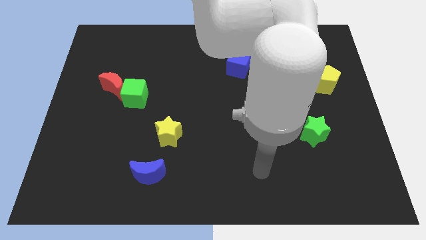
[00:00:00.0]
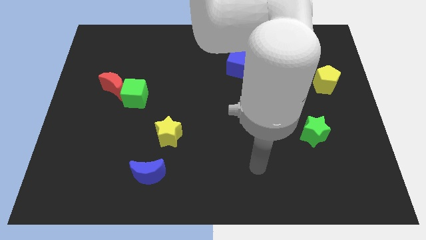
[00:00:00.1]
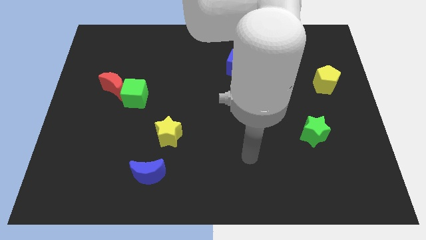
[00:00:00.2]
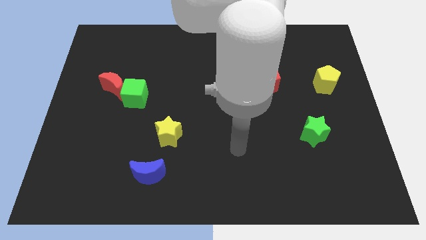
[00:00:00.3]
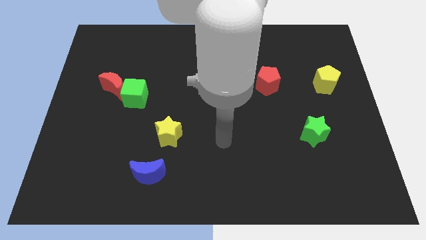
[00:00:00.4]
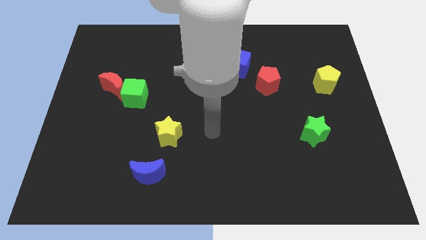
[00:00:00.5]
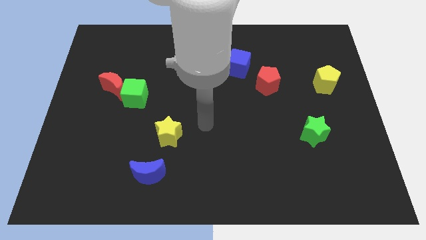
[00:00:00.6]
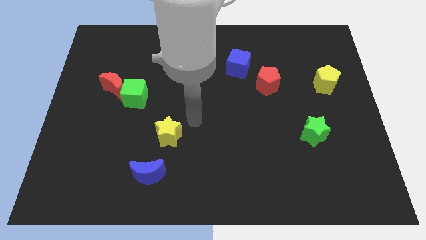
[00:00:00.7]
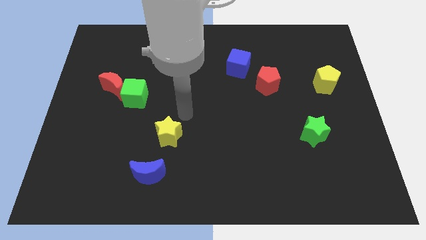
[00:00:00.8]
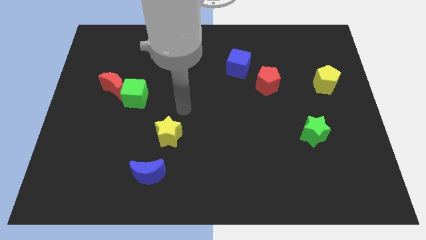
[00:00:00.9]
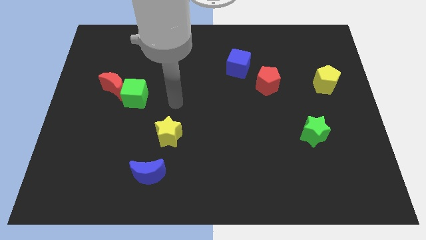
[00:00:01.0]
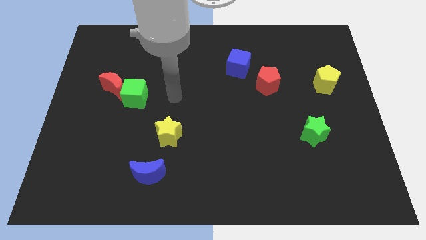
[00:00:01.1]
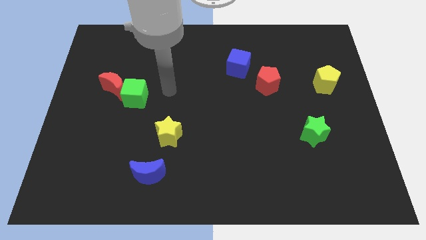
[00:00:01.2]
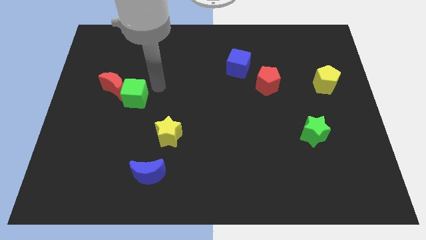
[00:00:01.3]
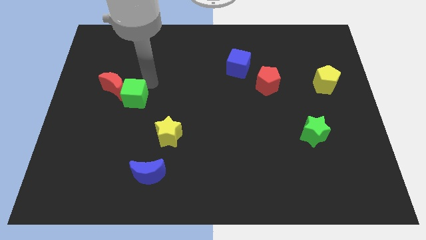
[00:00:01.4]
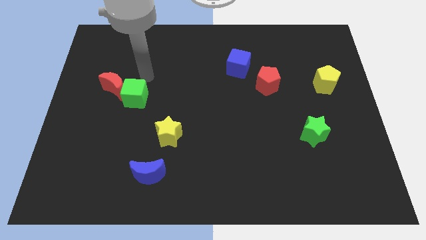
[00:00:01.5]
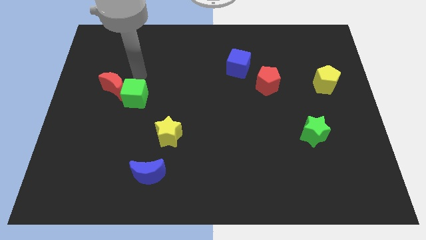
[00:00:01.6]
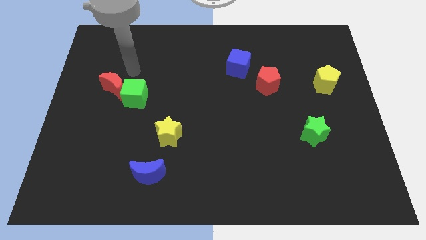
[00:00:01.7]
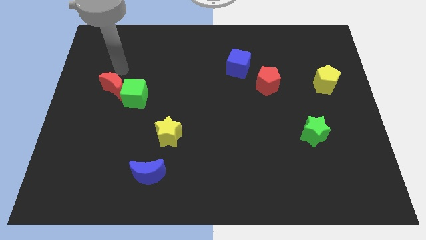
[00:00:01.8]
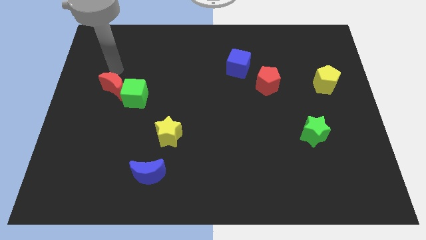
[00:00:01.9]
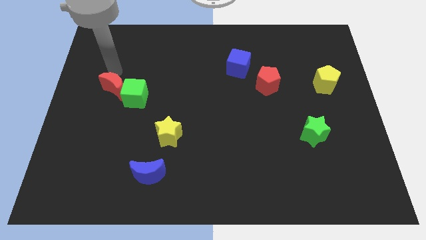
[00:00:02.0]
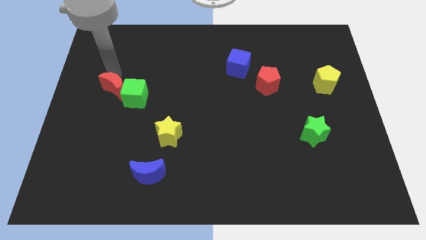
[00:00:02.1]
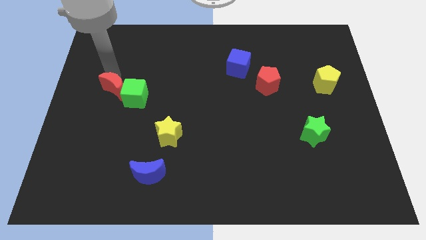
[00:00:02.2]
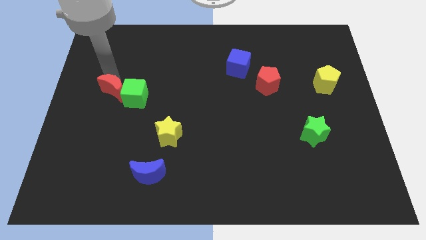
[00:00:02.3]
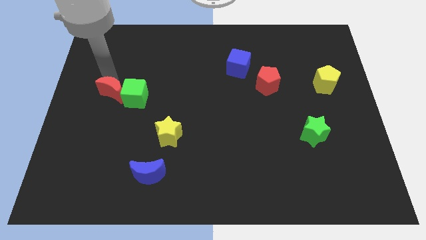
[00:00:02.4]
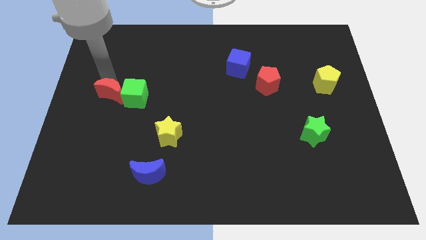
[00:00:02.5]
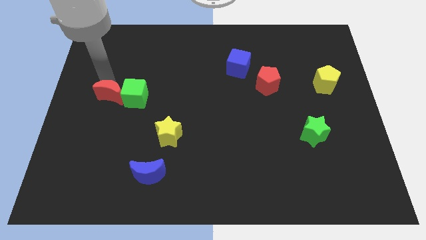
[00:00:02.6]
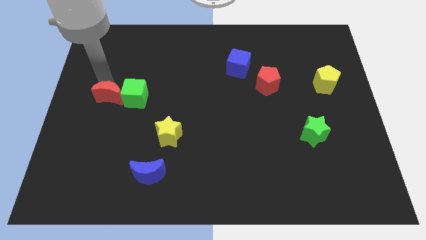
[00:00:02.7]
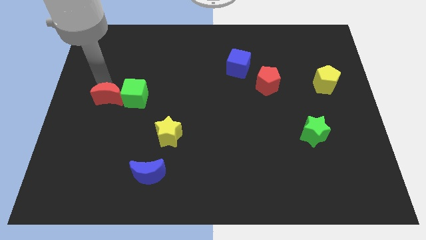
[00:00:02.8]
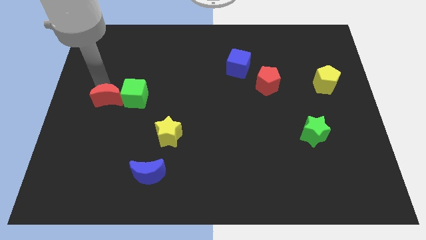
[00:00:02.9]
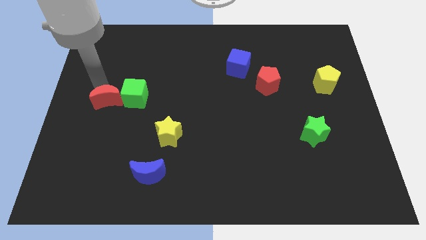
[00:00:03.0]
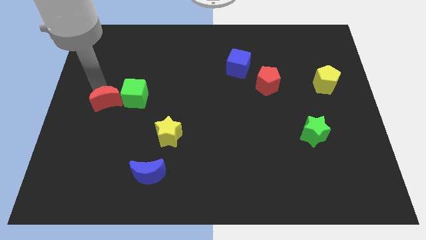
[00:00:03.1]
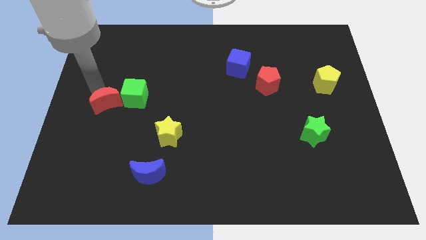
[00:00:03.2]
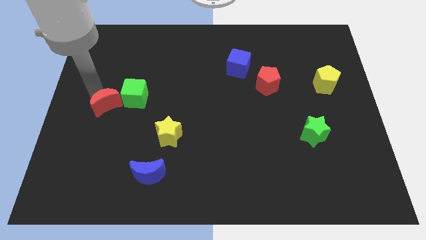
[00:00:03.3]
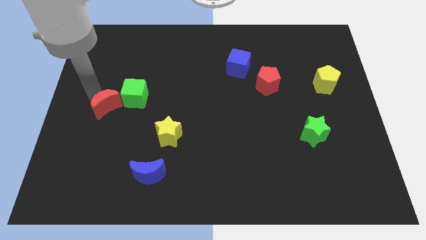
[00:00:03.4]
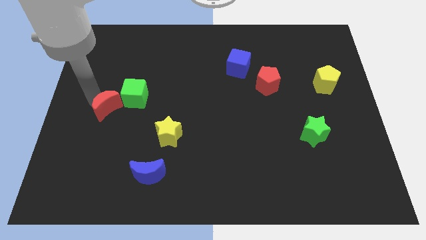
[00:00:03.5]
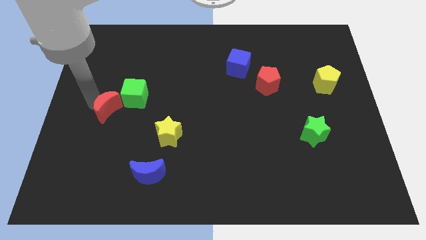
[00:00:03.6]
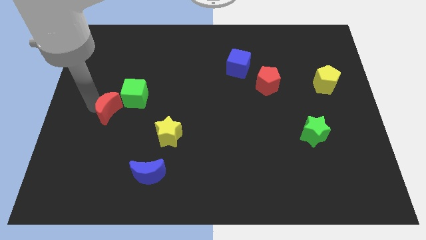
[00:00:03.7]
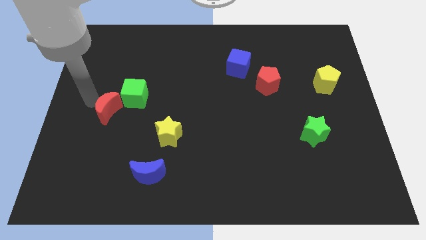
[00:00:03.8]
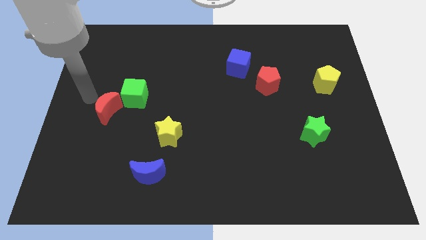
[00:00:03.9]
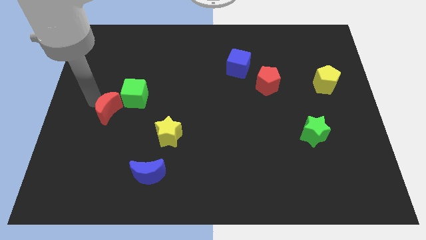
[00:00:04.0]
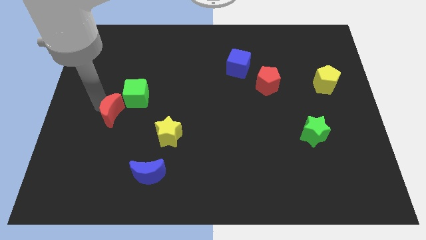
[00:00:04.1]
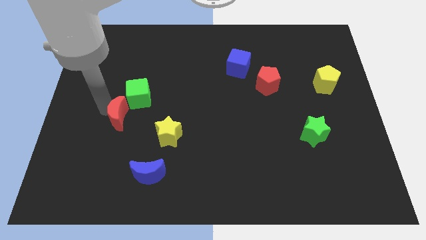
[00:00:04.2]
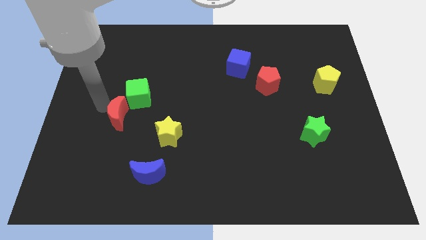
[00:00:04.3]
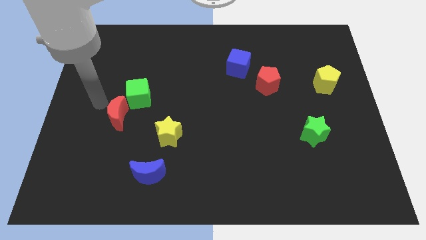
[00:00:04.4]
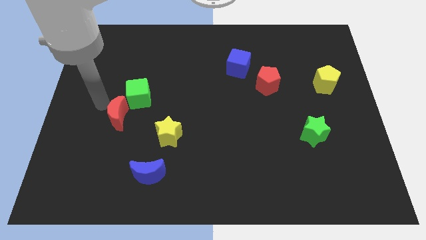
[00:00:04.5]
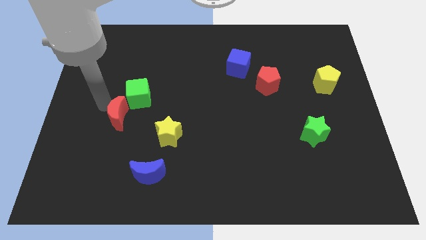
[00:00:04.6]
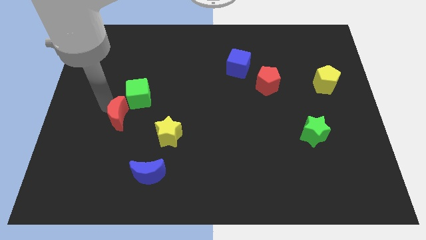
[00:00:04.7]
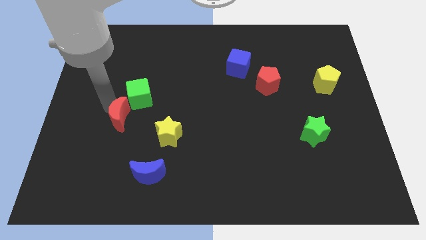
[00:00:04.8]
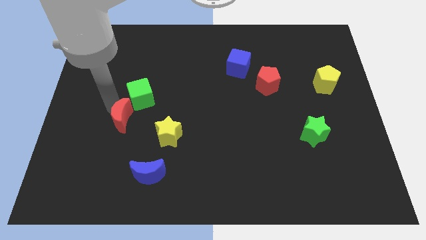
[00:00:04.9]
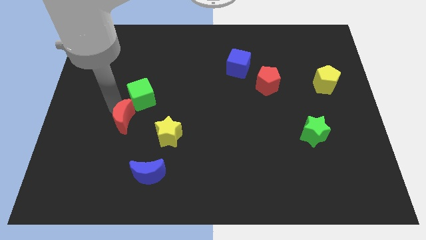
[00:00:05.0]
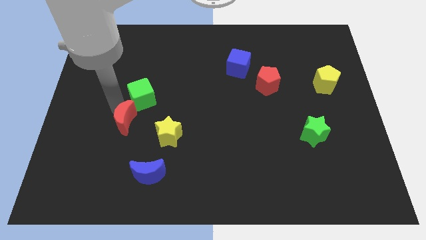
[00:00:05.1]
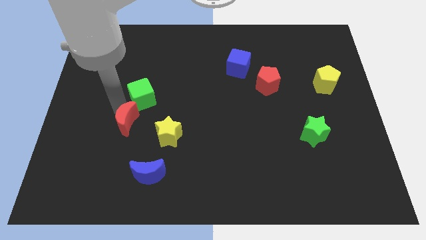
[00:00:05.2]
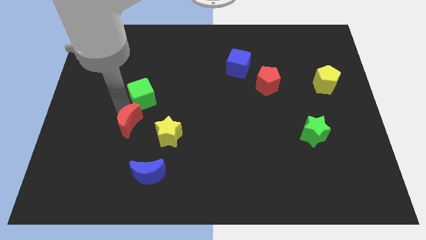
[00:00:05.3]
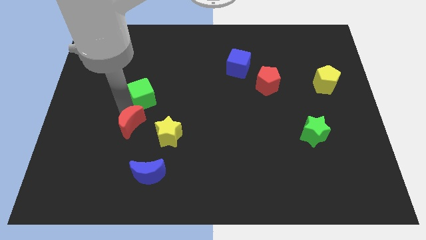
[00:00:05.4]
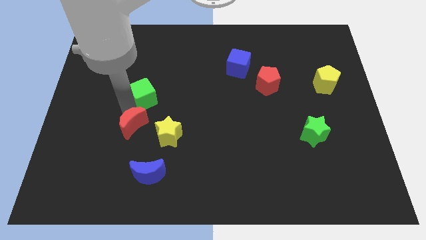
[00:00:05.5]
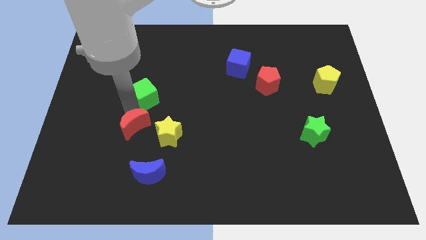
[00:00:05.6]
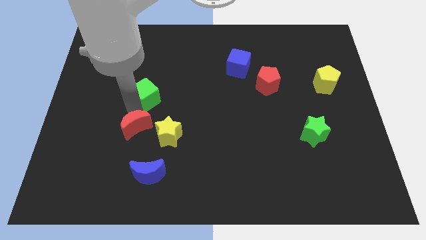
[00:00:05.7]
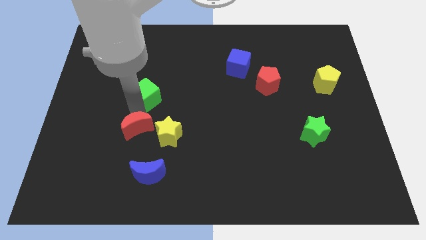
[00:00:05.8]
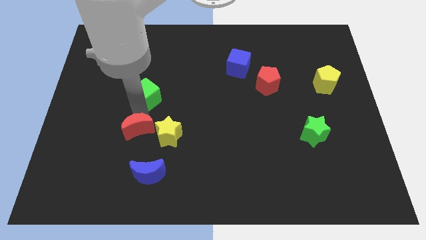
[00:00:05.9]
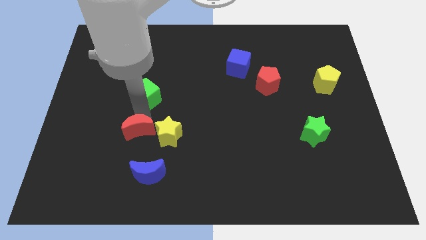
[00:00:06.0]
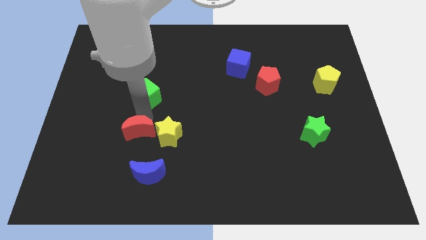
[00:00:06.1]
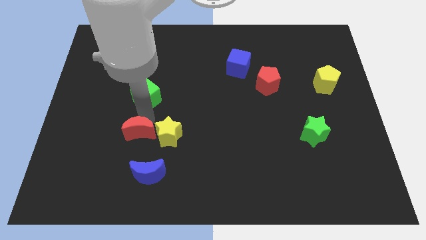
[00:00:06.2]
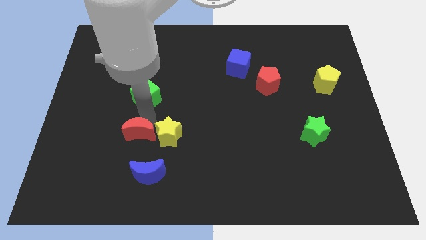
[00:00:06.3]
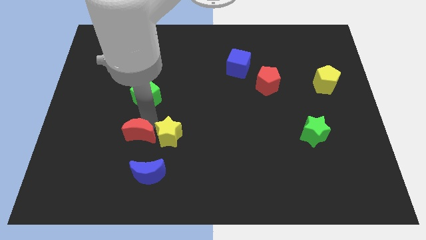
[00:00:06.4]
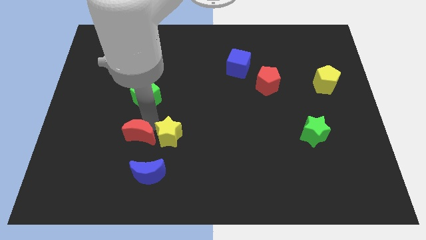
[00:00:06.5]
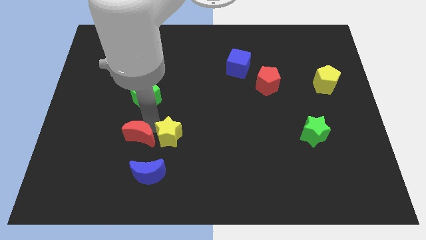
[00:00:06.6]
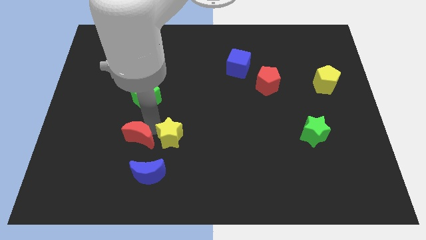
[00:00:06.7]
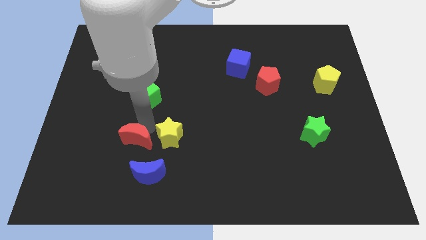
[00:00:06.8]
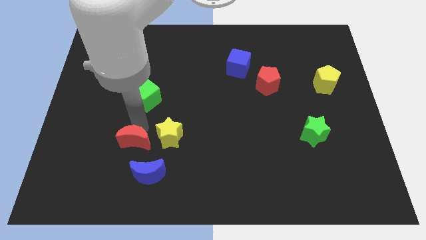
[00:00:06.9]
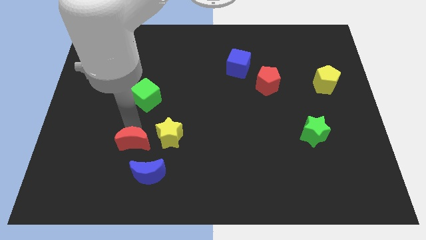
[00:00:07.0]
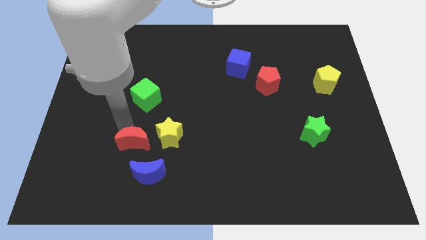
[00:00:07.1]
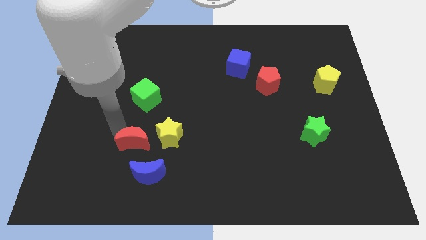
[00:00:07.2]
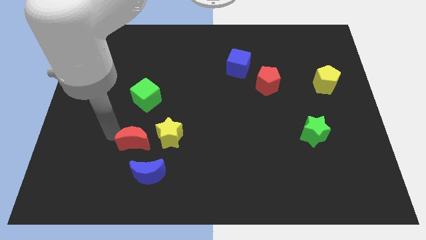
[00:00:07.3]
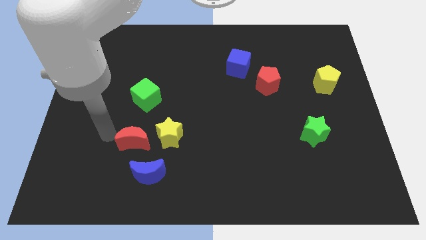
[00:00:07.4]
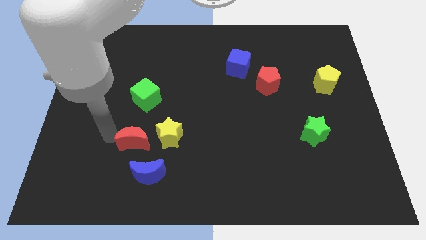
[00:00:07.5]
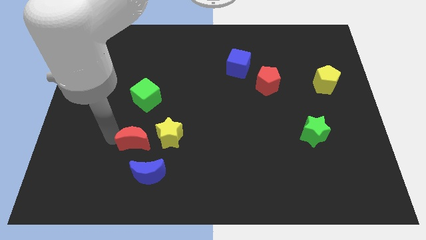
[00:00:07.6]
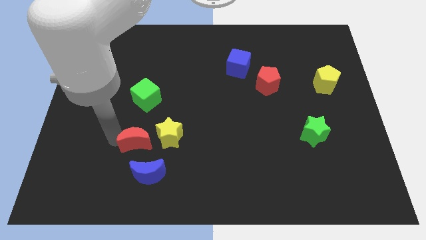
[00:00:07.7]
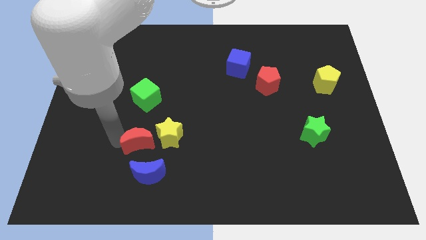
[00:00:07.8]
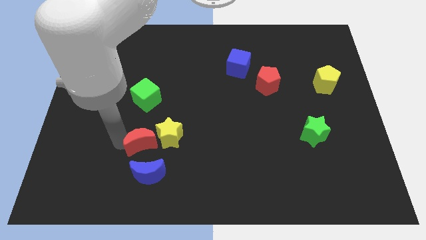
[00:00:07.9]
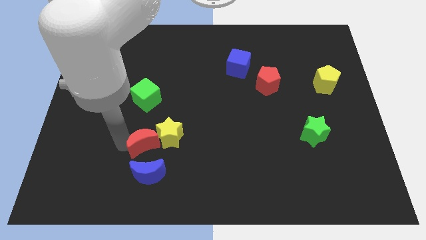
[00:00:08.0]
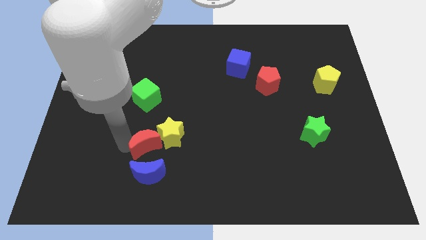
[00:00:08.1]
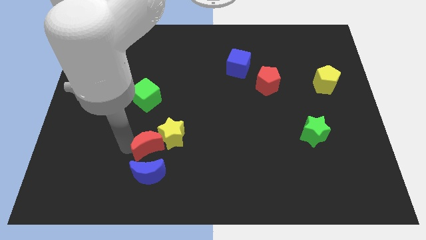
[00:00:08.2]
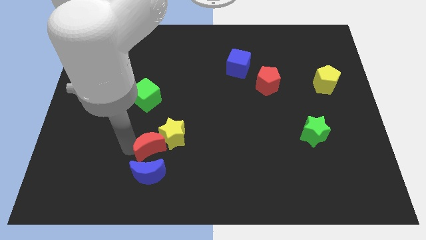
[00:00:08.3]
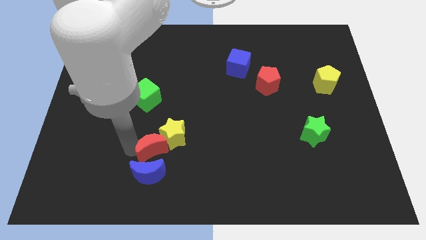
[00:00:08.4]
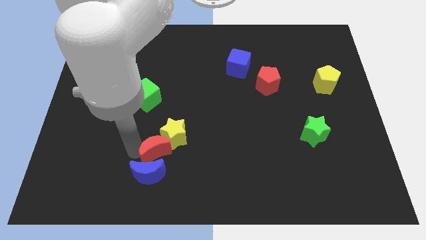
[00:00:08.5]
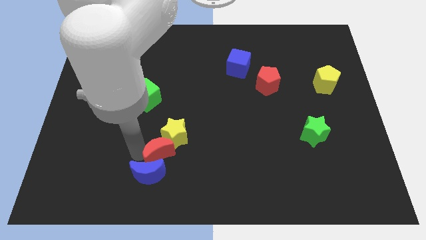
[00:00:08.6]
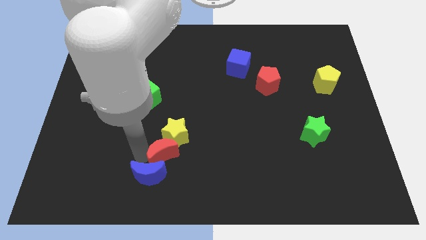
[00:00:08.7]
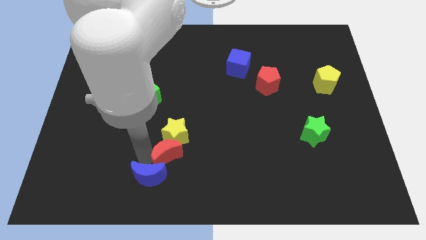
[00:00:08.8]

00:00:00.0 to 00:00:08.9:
slide the red moon to the bottom right of the yellow star
